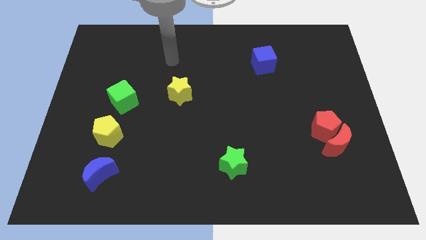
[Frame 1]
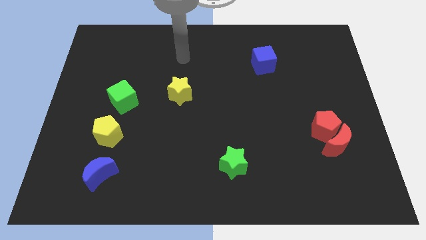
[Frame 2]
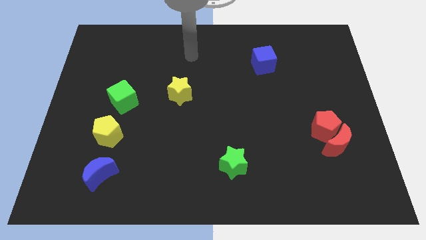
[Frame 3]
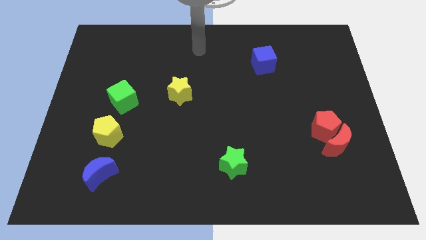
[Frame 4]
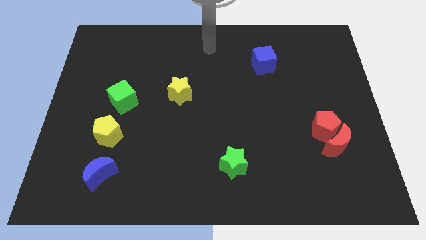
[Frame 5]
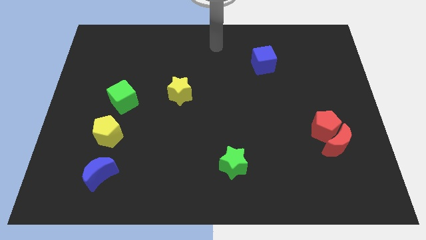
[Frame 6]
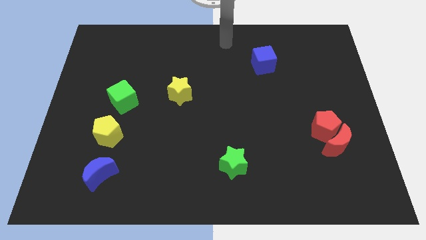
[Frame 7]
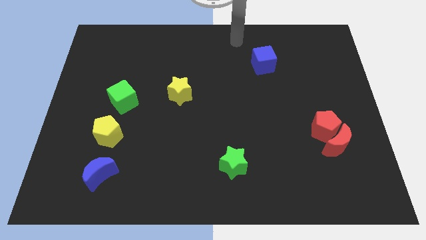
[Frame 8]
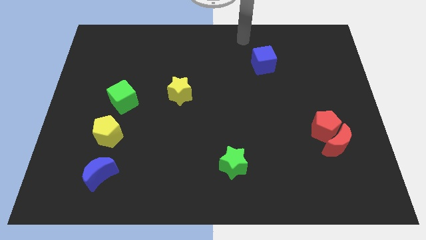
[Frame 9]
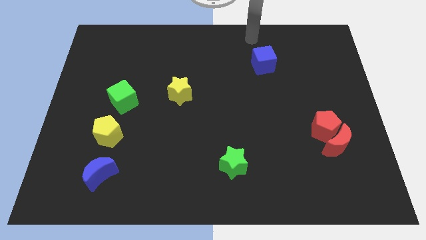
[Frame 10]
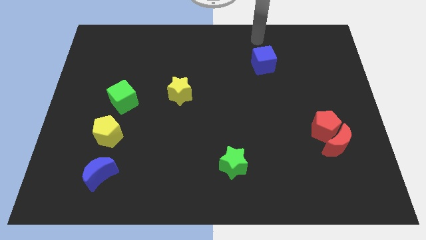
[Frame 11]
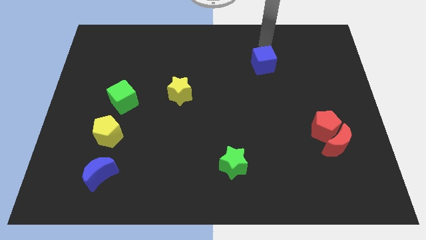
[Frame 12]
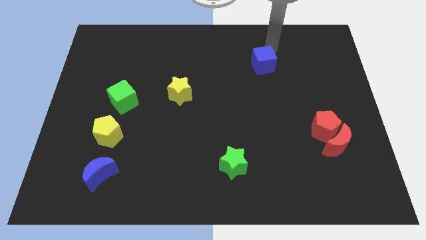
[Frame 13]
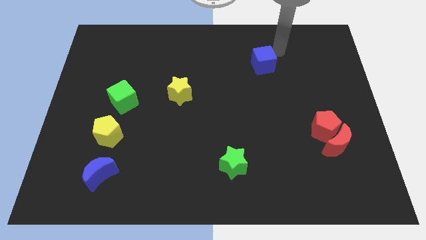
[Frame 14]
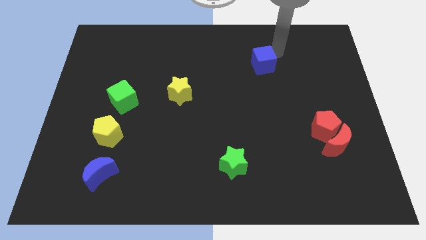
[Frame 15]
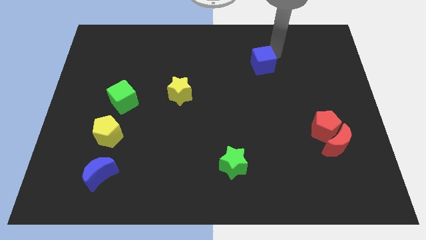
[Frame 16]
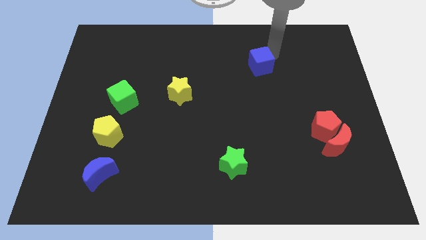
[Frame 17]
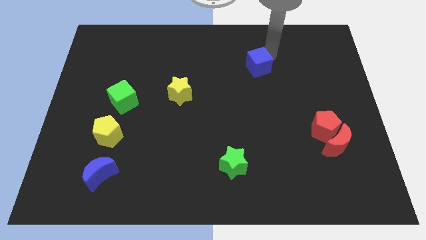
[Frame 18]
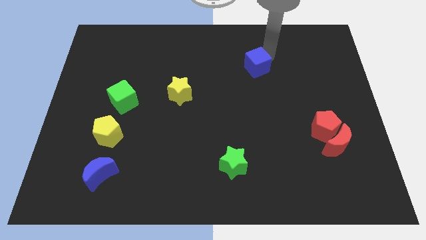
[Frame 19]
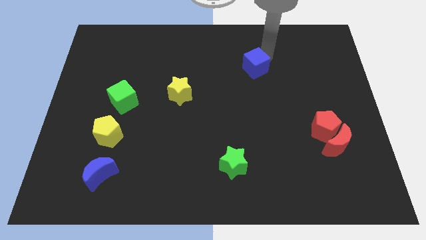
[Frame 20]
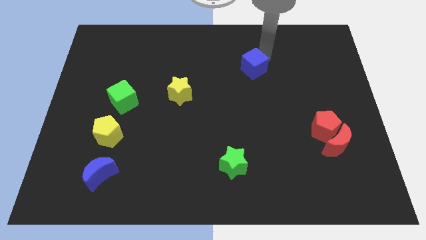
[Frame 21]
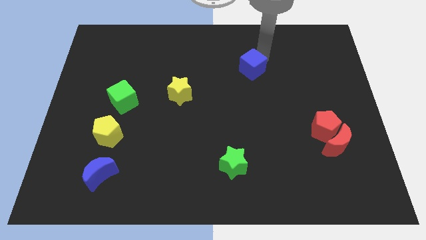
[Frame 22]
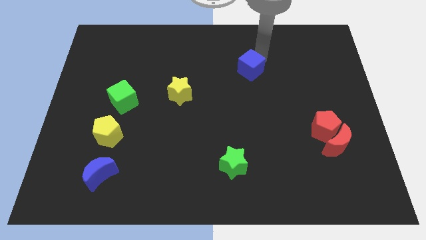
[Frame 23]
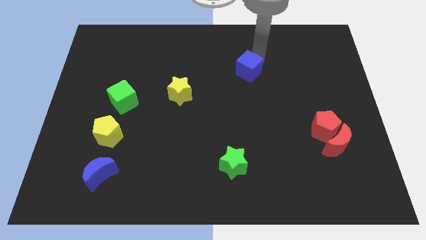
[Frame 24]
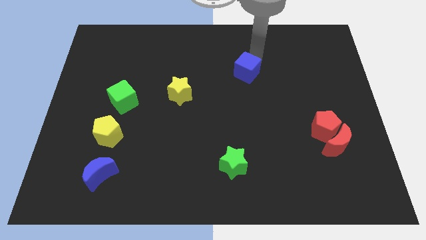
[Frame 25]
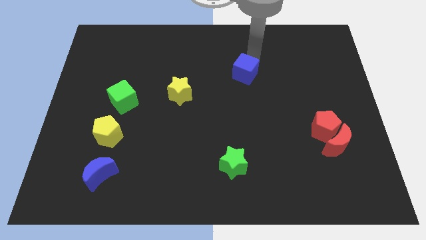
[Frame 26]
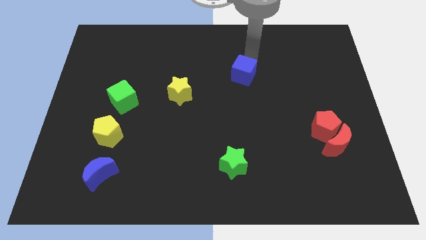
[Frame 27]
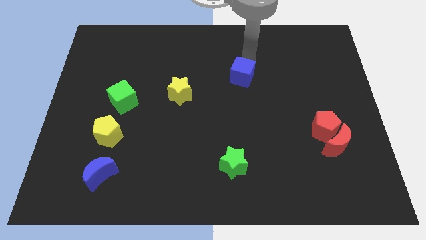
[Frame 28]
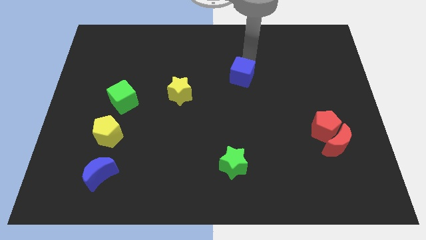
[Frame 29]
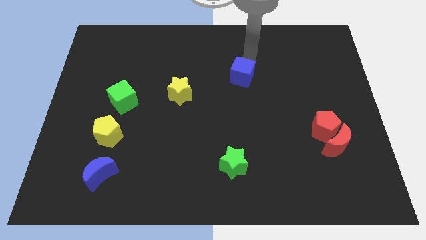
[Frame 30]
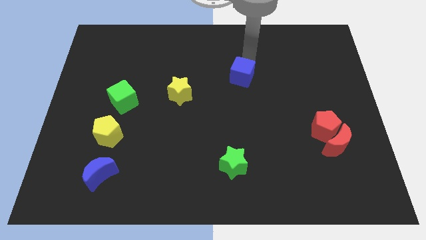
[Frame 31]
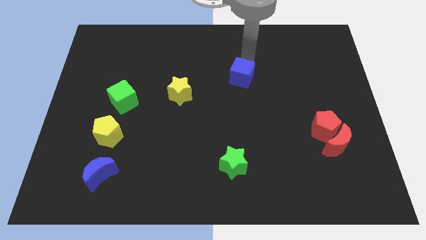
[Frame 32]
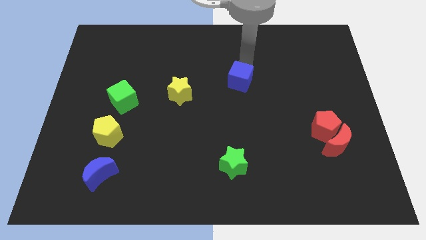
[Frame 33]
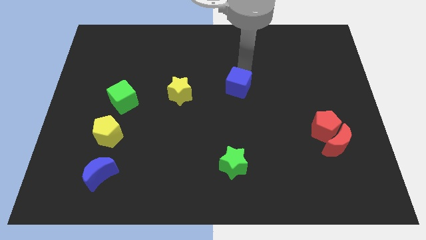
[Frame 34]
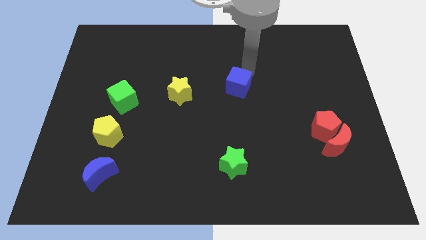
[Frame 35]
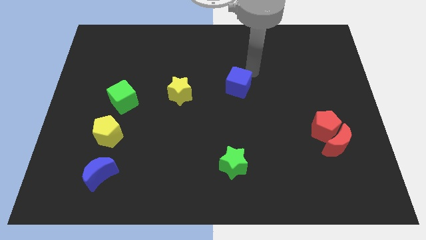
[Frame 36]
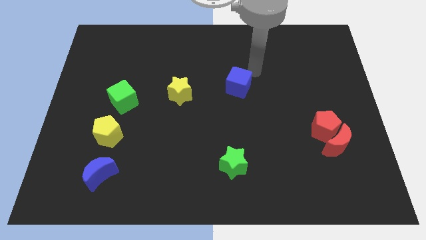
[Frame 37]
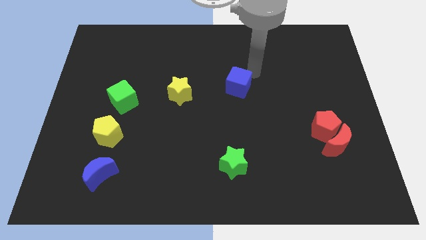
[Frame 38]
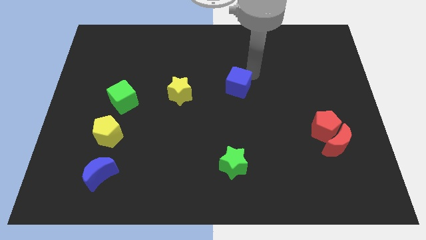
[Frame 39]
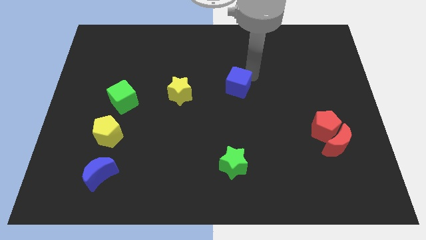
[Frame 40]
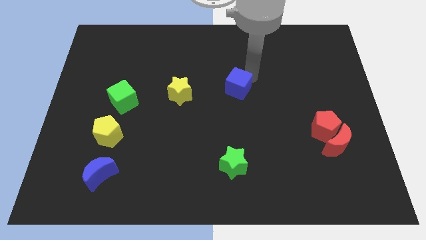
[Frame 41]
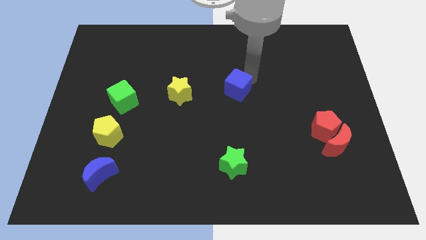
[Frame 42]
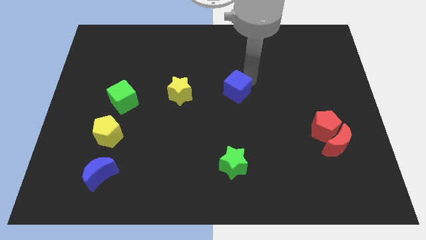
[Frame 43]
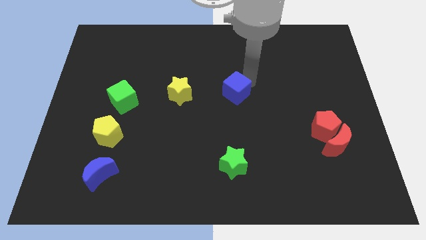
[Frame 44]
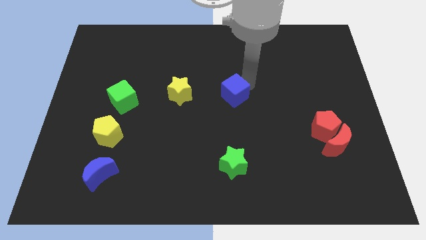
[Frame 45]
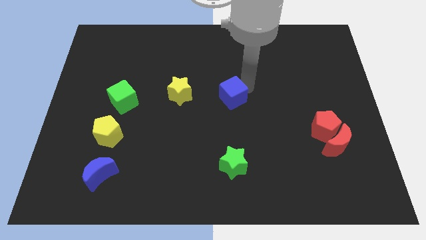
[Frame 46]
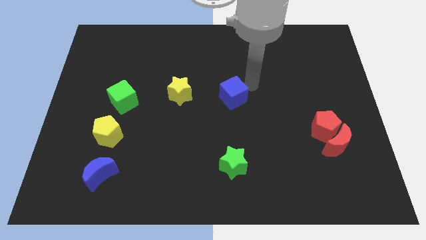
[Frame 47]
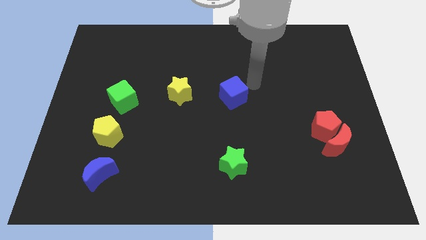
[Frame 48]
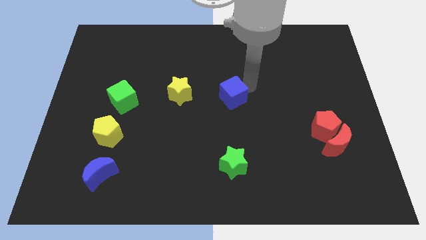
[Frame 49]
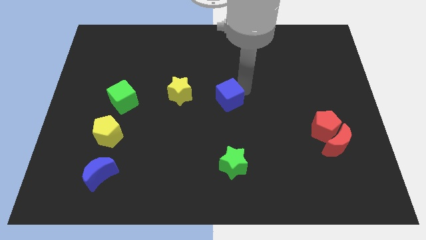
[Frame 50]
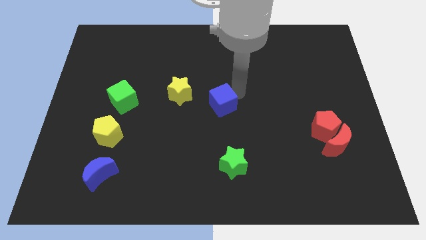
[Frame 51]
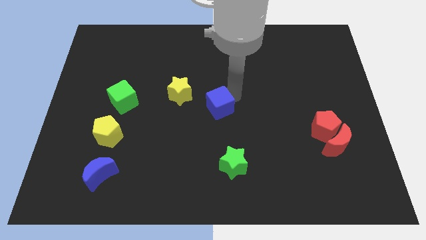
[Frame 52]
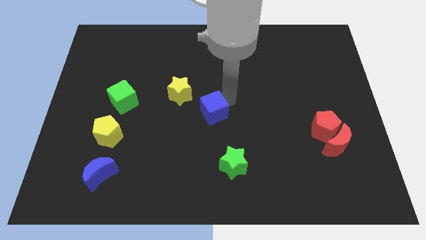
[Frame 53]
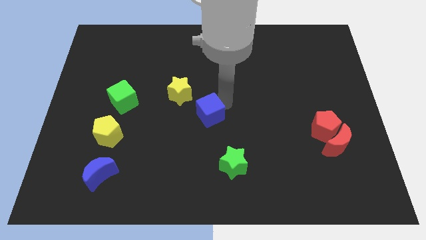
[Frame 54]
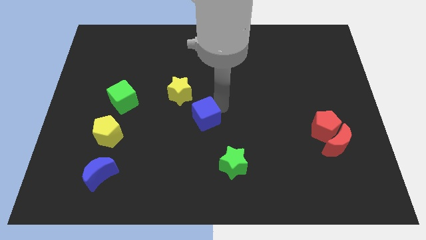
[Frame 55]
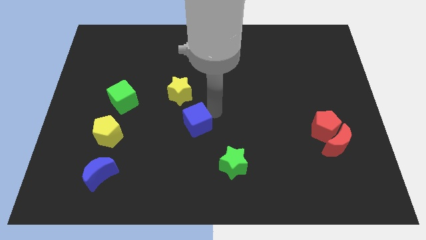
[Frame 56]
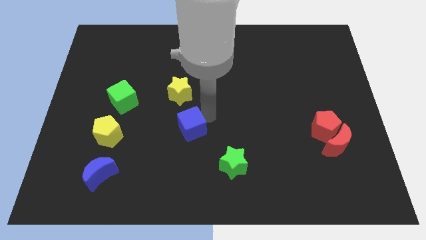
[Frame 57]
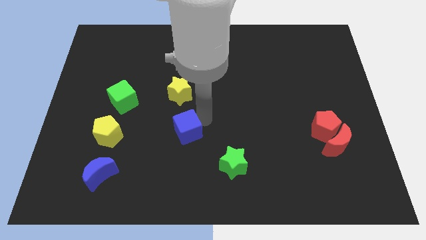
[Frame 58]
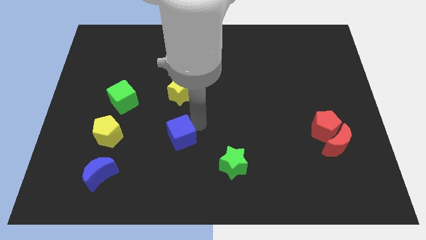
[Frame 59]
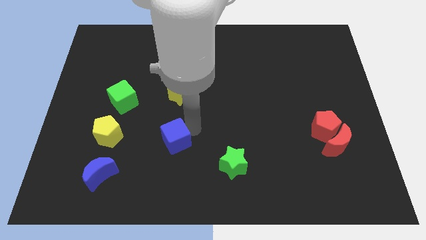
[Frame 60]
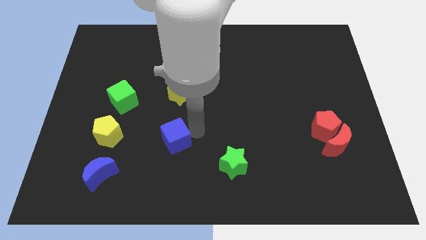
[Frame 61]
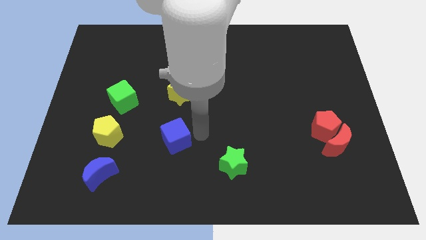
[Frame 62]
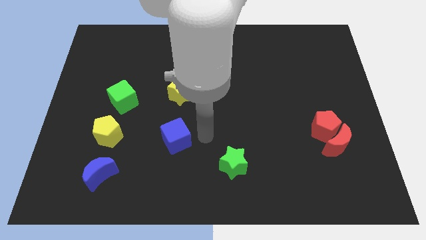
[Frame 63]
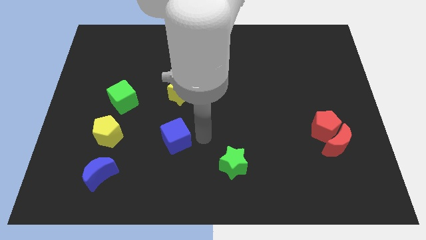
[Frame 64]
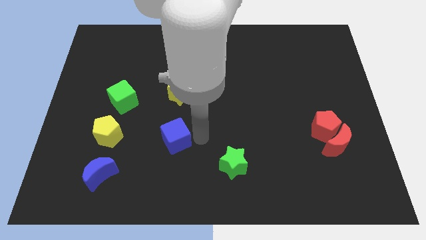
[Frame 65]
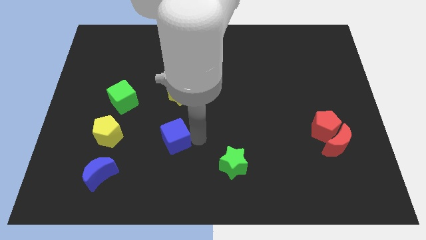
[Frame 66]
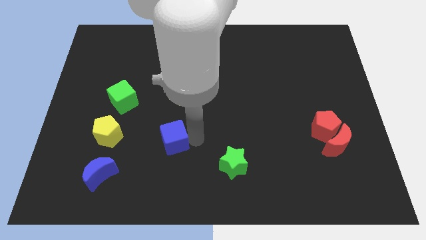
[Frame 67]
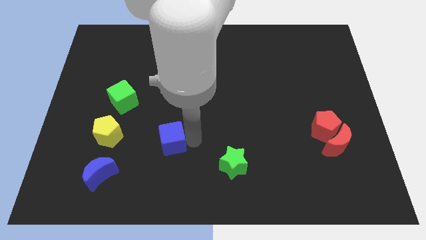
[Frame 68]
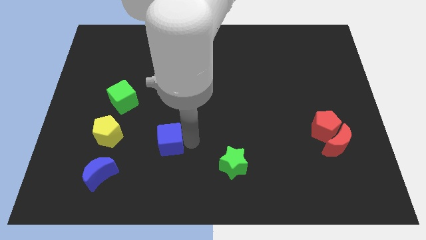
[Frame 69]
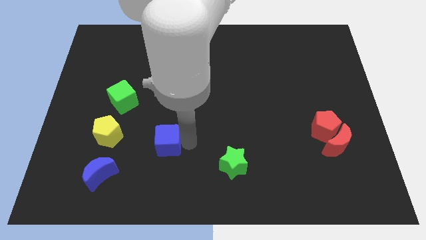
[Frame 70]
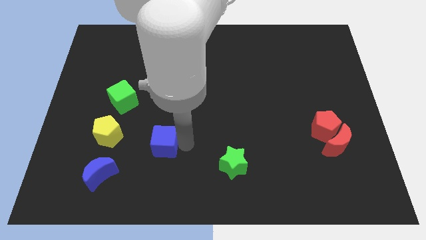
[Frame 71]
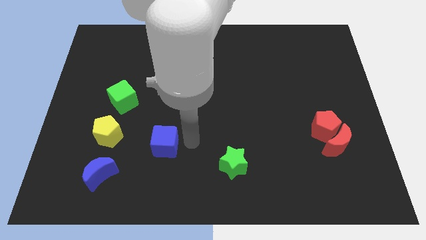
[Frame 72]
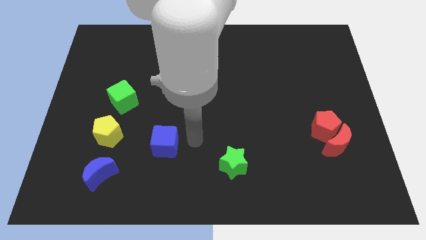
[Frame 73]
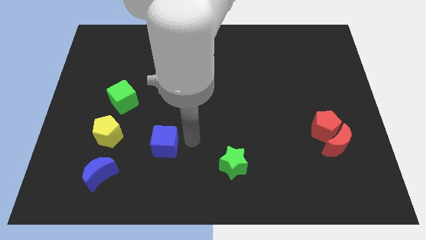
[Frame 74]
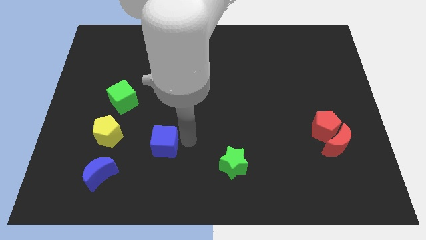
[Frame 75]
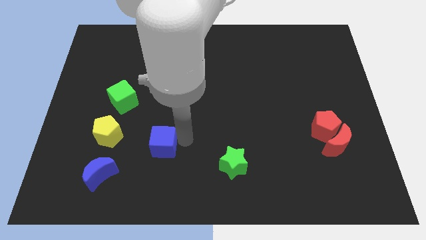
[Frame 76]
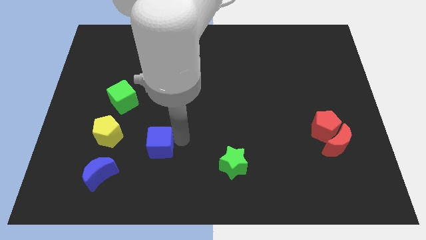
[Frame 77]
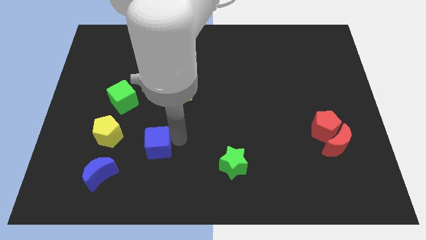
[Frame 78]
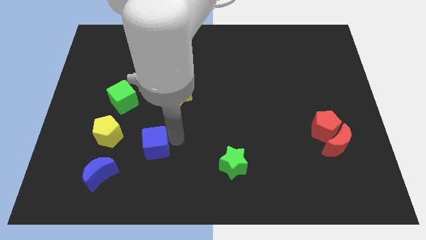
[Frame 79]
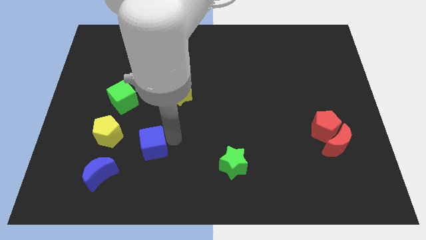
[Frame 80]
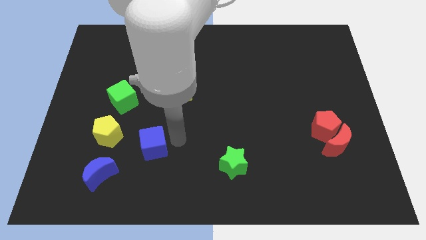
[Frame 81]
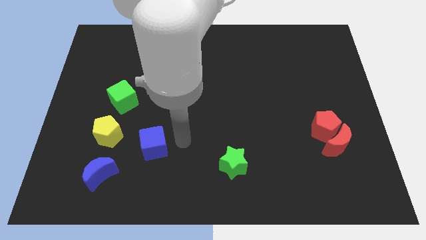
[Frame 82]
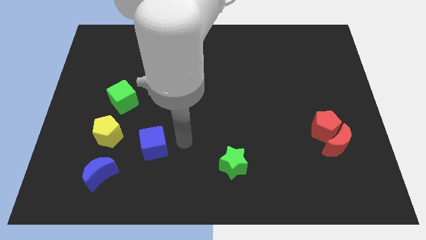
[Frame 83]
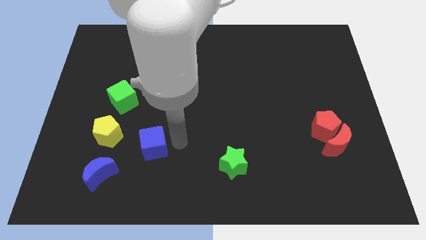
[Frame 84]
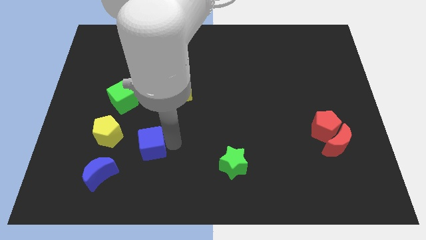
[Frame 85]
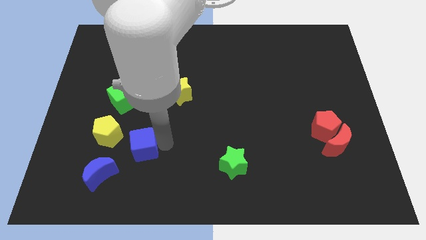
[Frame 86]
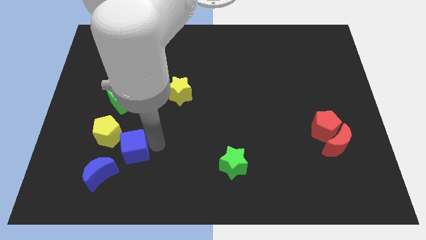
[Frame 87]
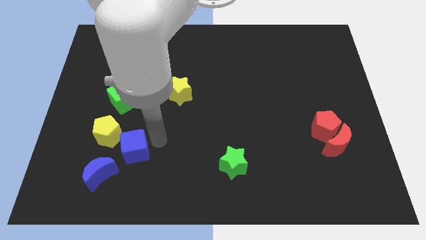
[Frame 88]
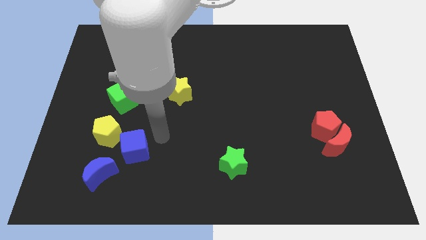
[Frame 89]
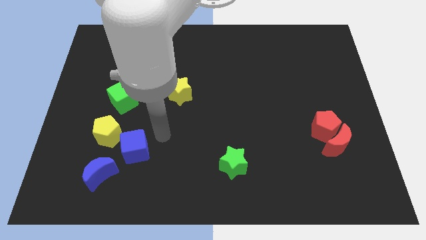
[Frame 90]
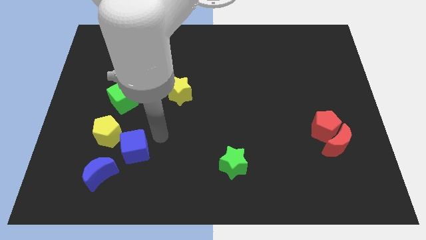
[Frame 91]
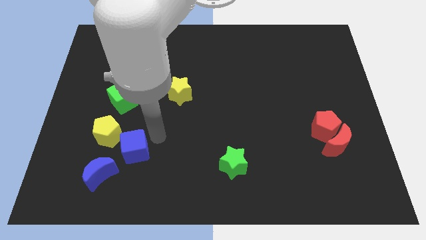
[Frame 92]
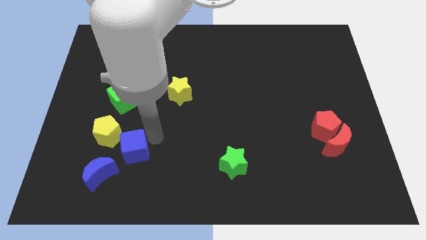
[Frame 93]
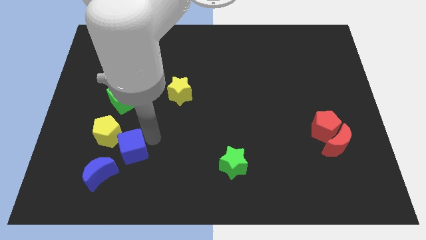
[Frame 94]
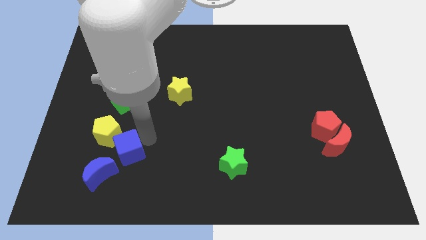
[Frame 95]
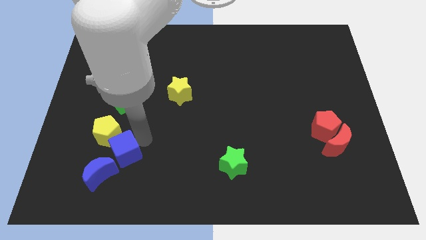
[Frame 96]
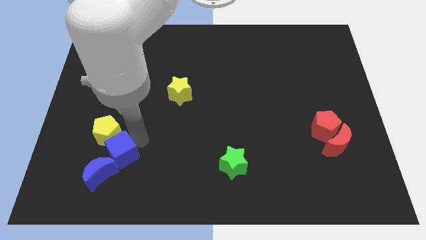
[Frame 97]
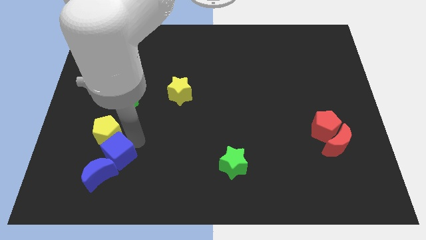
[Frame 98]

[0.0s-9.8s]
slide the blue cube to the blue moon
